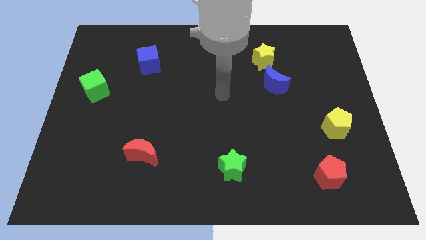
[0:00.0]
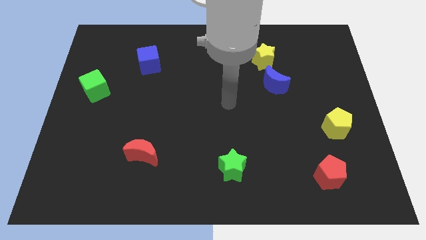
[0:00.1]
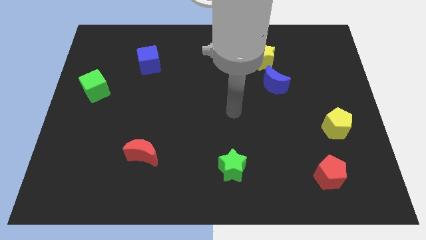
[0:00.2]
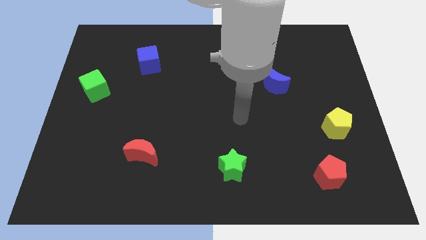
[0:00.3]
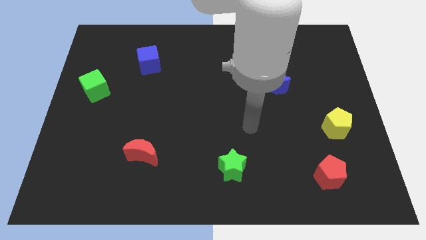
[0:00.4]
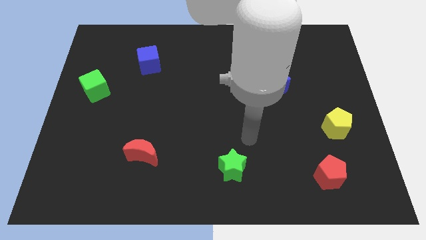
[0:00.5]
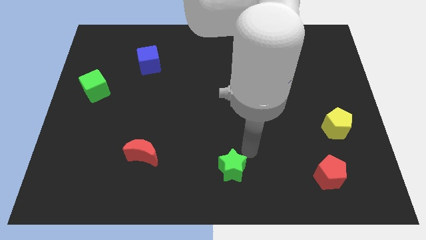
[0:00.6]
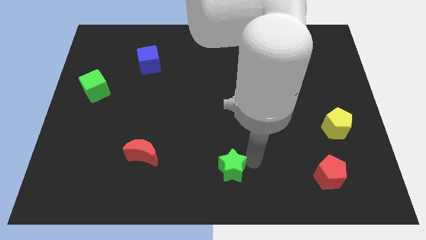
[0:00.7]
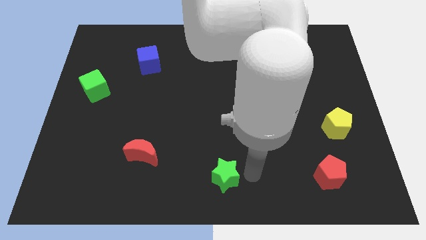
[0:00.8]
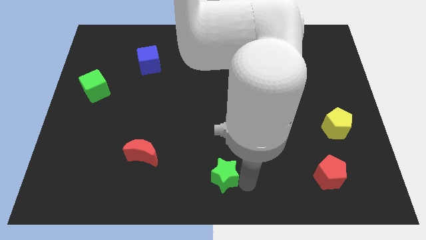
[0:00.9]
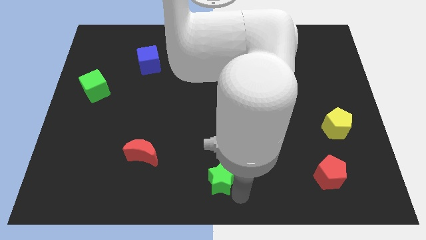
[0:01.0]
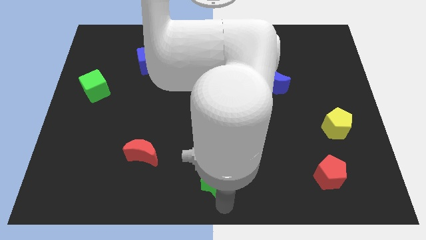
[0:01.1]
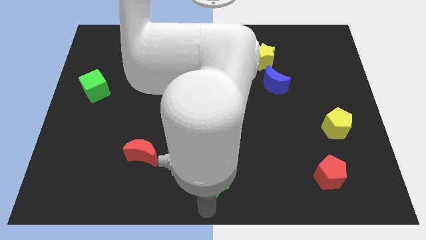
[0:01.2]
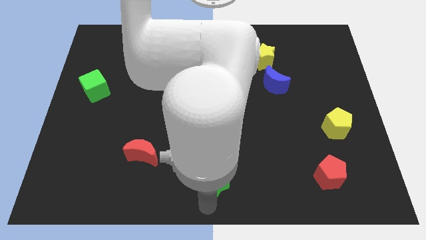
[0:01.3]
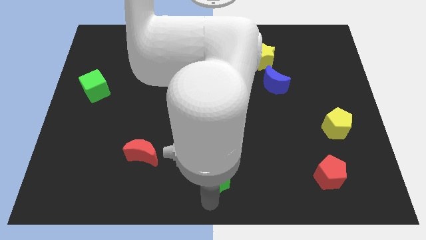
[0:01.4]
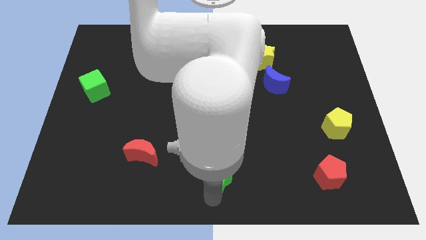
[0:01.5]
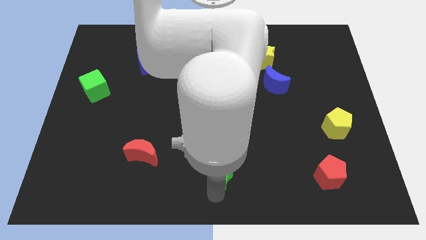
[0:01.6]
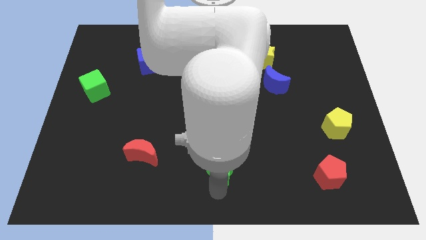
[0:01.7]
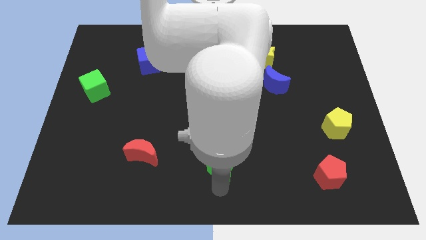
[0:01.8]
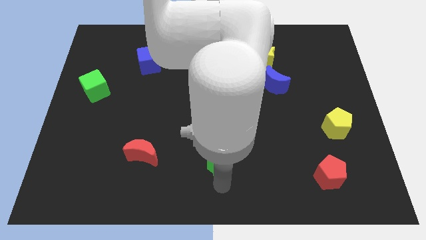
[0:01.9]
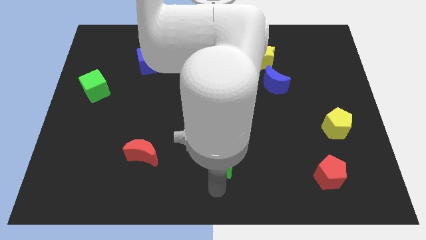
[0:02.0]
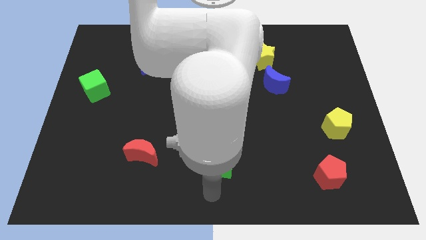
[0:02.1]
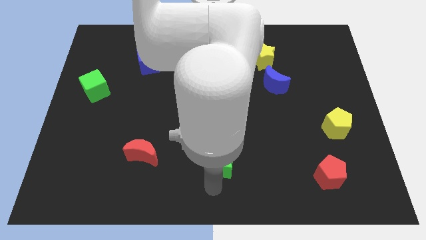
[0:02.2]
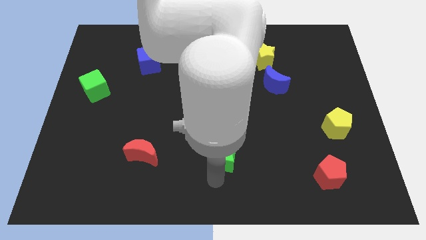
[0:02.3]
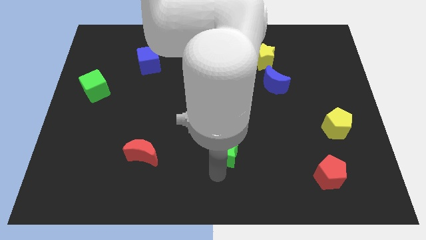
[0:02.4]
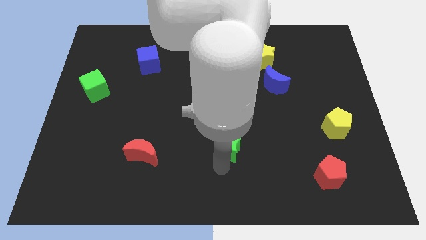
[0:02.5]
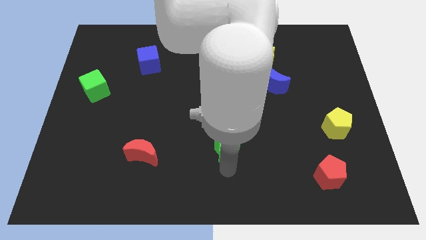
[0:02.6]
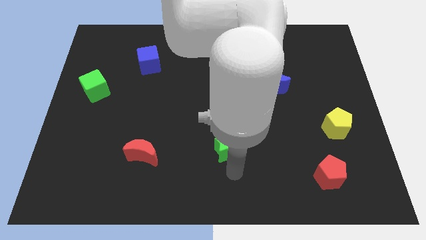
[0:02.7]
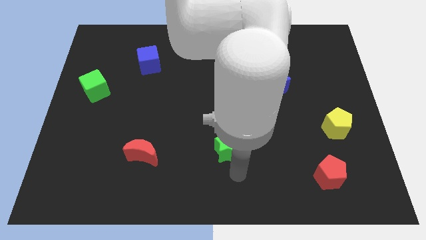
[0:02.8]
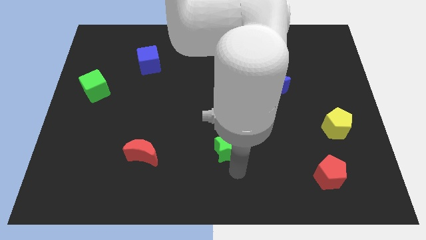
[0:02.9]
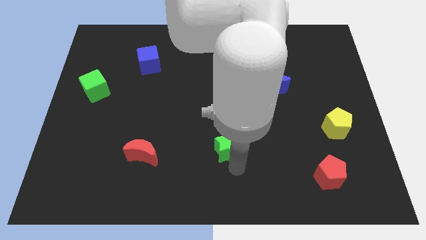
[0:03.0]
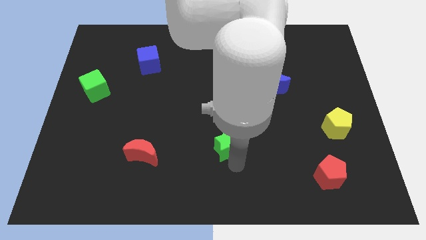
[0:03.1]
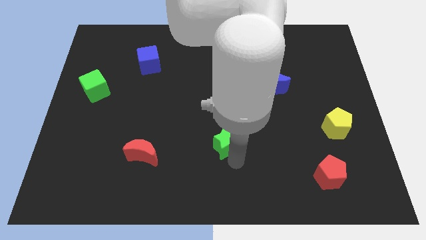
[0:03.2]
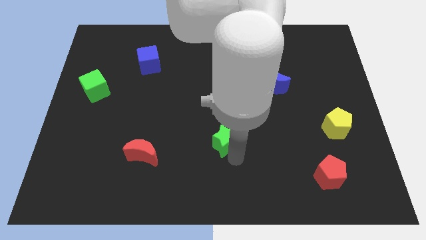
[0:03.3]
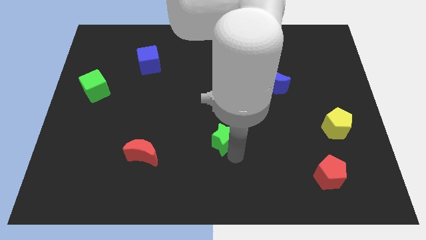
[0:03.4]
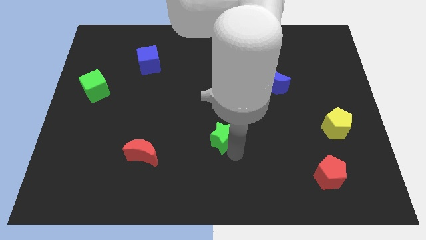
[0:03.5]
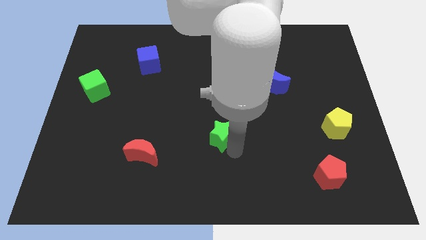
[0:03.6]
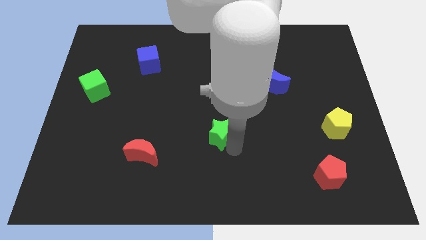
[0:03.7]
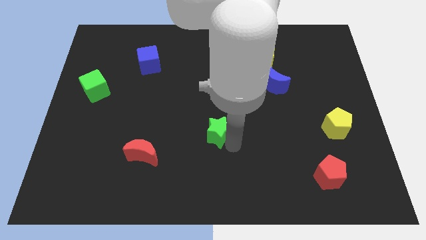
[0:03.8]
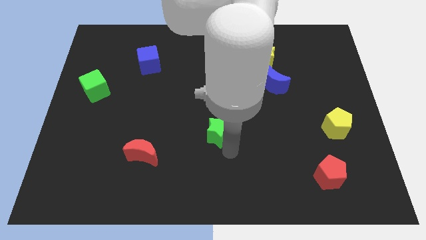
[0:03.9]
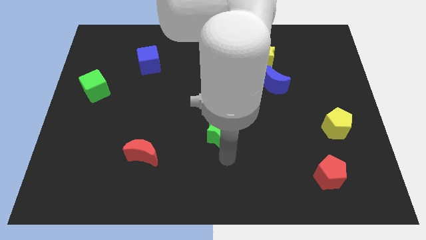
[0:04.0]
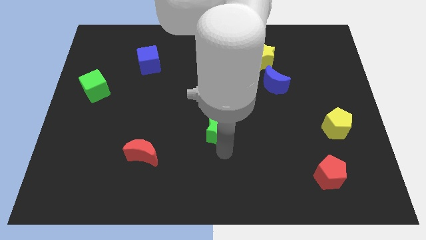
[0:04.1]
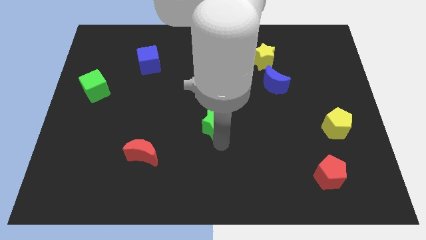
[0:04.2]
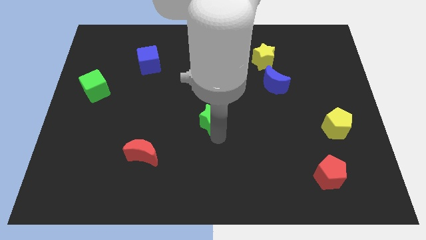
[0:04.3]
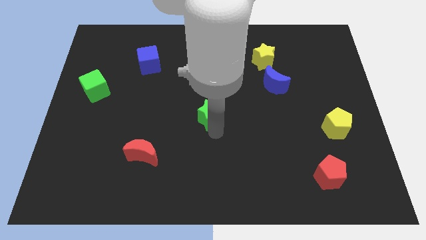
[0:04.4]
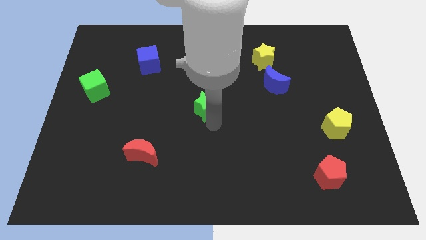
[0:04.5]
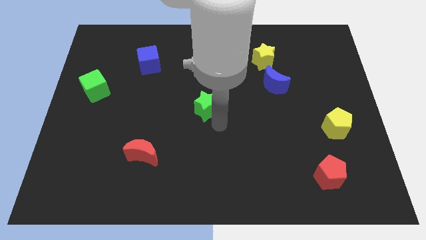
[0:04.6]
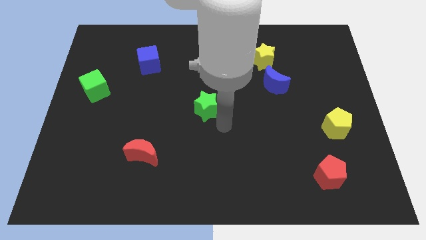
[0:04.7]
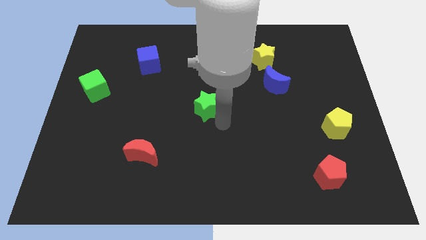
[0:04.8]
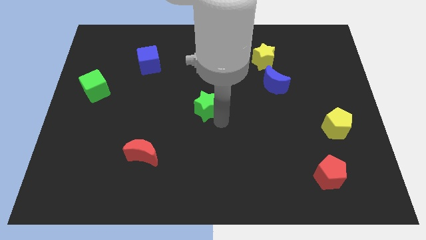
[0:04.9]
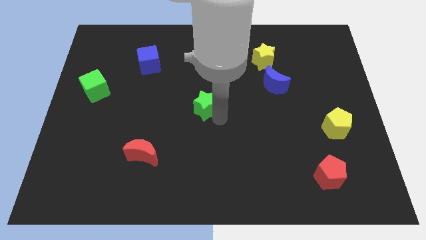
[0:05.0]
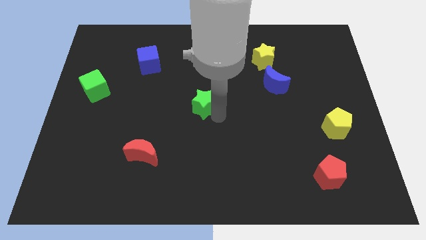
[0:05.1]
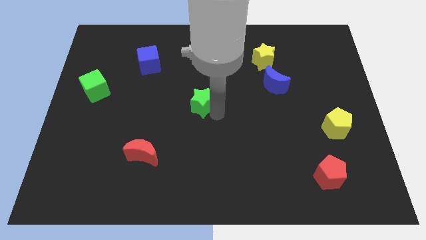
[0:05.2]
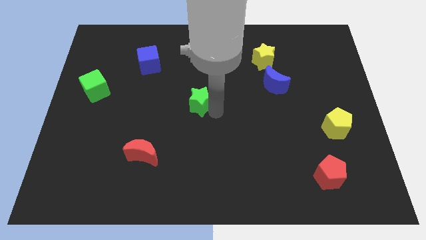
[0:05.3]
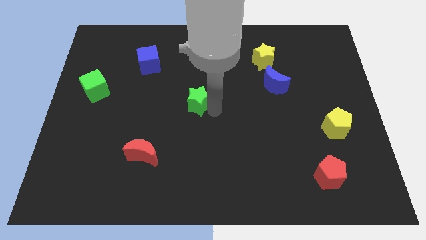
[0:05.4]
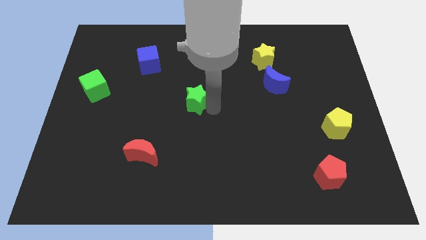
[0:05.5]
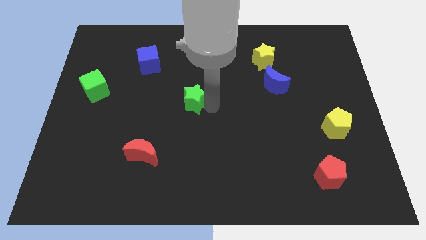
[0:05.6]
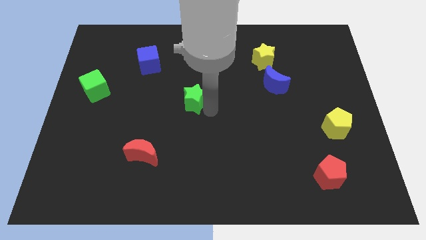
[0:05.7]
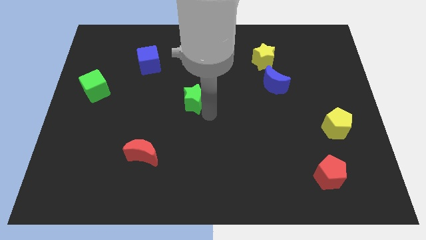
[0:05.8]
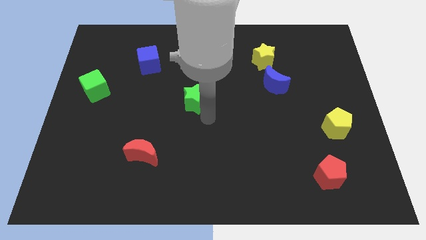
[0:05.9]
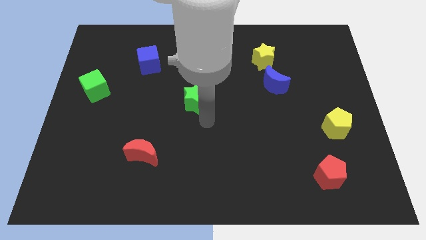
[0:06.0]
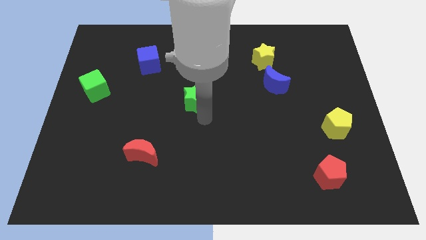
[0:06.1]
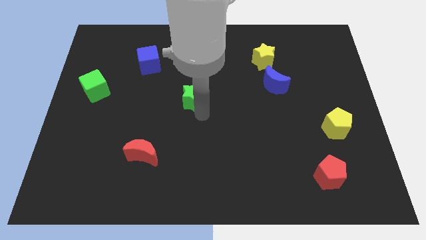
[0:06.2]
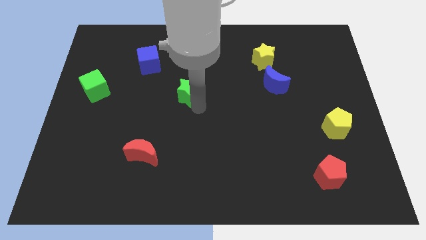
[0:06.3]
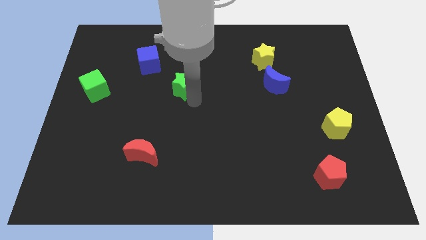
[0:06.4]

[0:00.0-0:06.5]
slide the green star diagonally down and to the right of the blue cube

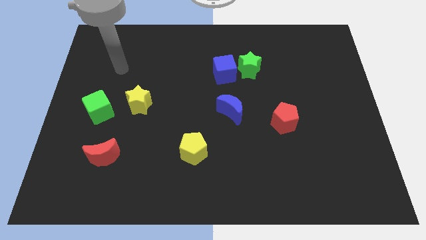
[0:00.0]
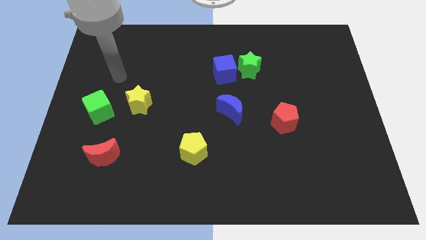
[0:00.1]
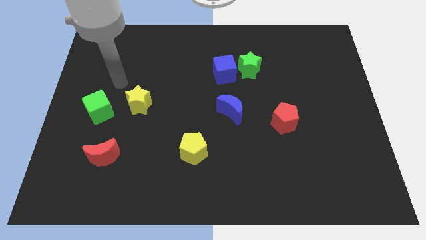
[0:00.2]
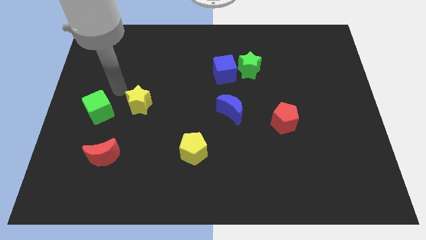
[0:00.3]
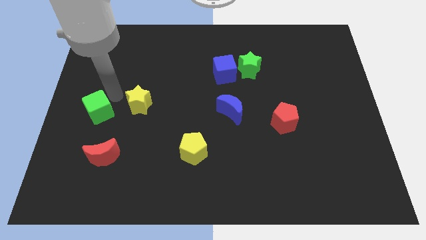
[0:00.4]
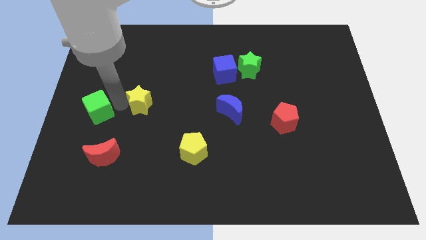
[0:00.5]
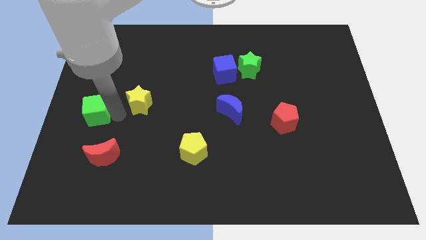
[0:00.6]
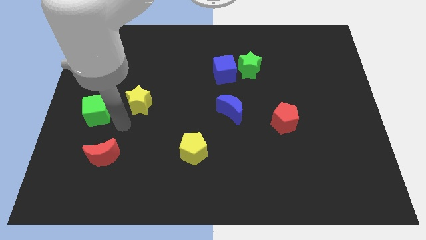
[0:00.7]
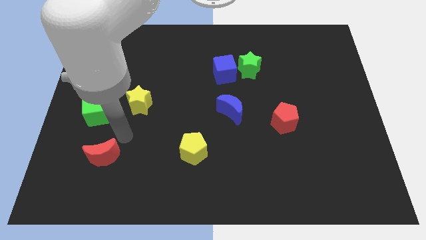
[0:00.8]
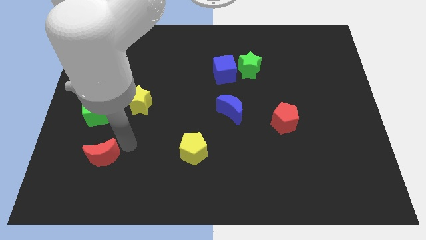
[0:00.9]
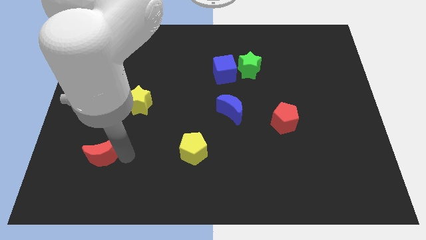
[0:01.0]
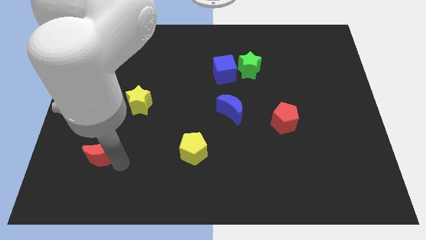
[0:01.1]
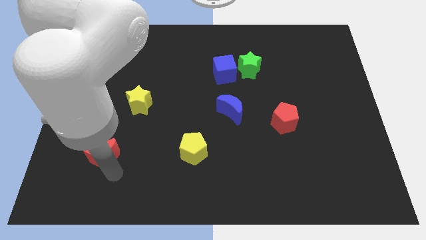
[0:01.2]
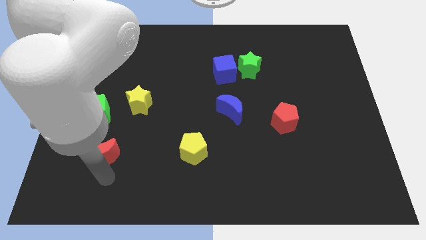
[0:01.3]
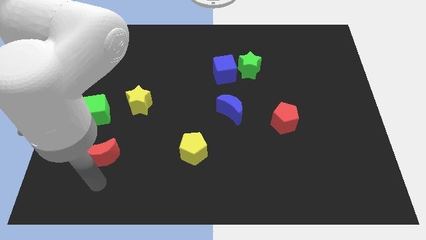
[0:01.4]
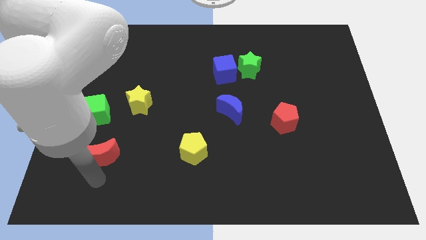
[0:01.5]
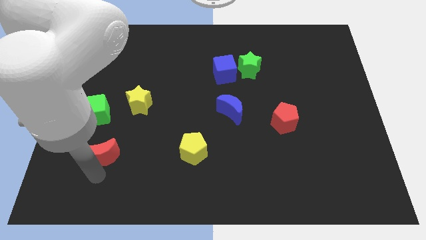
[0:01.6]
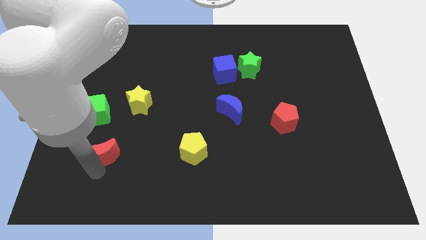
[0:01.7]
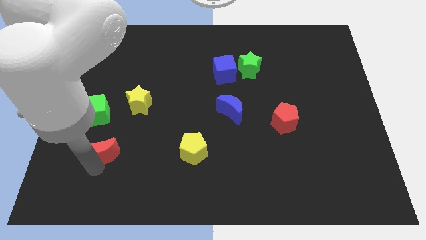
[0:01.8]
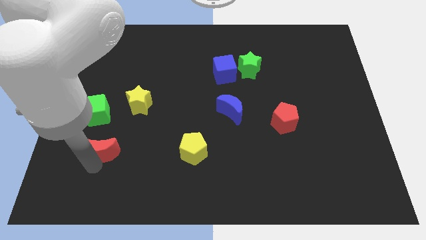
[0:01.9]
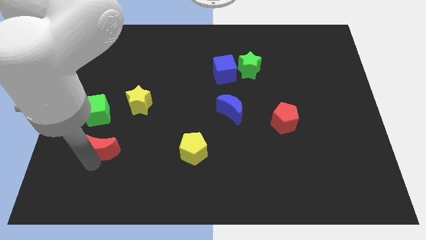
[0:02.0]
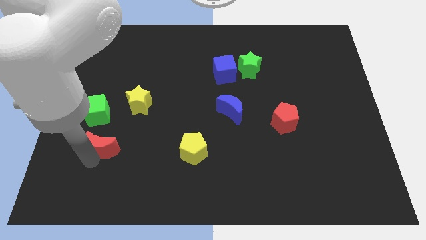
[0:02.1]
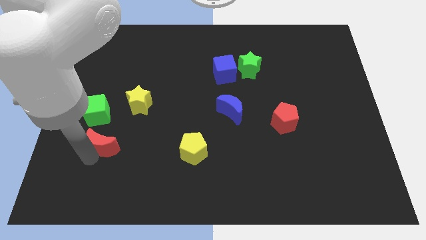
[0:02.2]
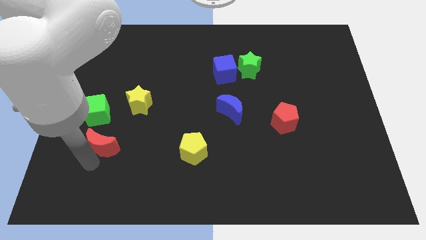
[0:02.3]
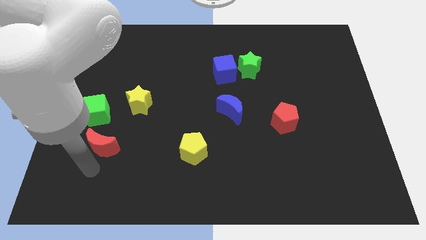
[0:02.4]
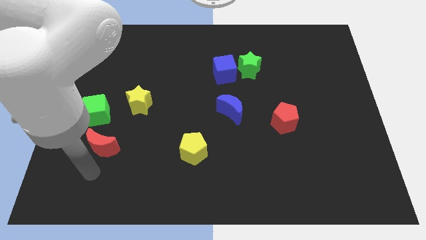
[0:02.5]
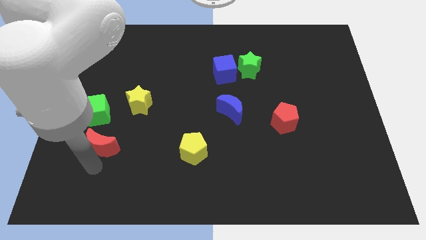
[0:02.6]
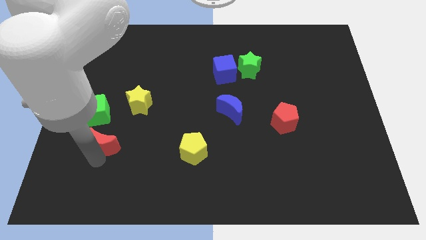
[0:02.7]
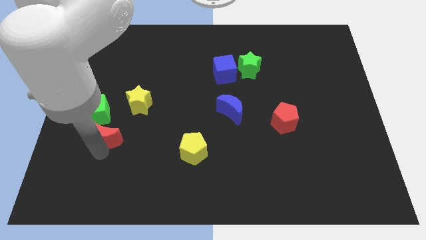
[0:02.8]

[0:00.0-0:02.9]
put the red moon to the bottom left of the yellow star
